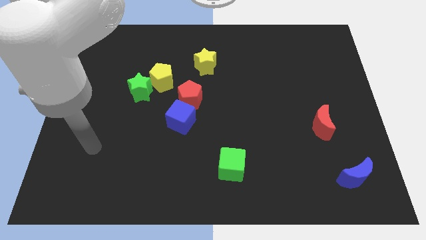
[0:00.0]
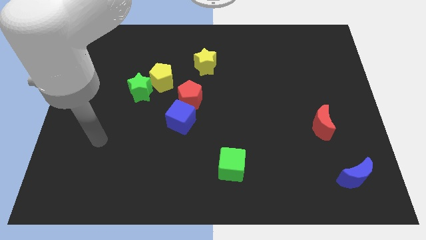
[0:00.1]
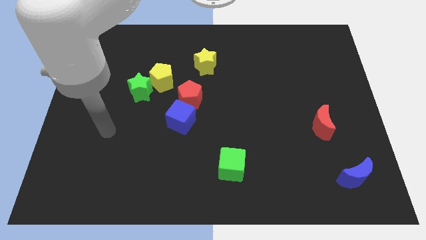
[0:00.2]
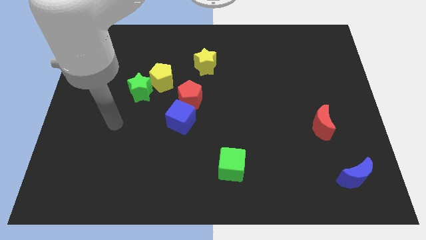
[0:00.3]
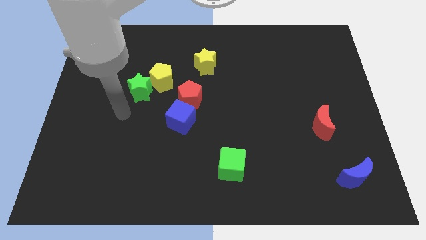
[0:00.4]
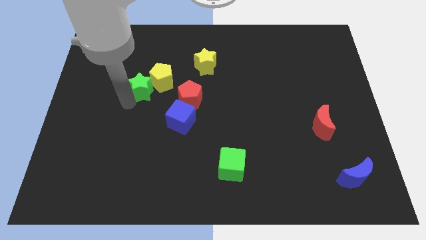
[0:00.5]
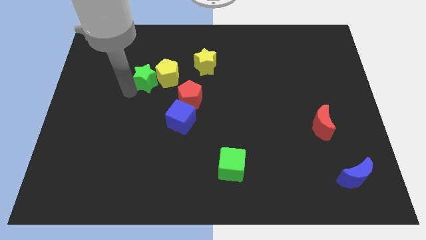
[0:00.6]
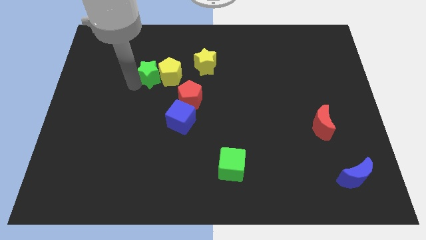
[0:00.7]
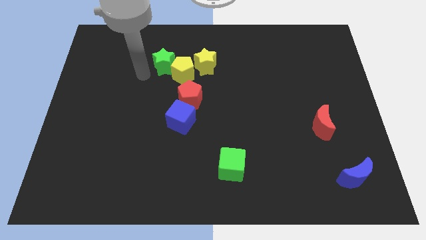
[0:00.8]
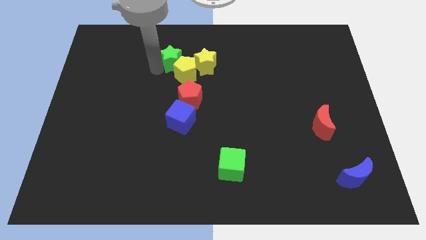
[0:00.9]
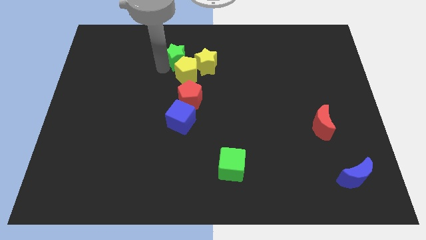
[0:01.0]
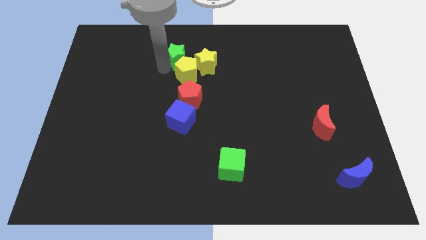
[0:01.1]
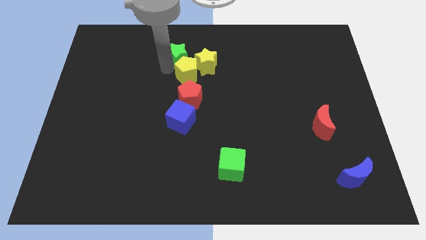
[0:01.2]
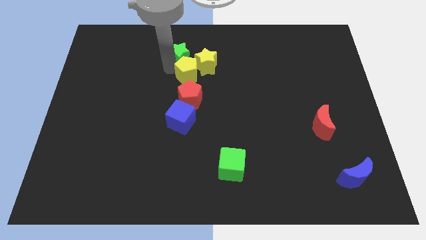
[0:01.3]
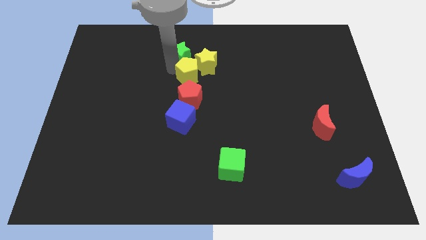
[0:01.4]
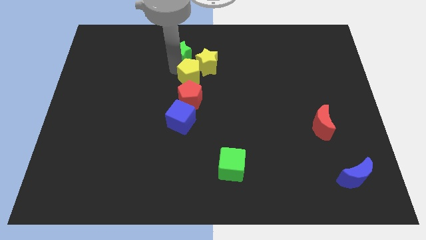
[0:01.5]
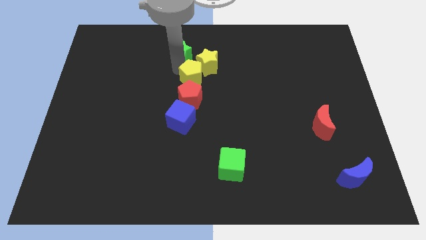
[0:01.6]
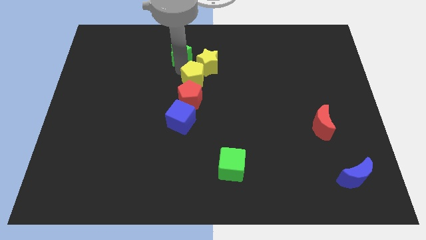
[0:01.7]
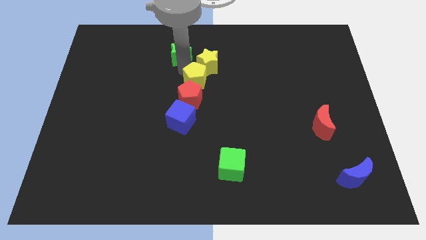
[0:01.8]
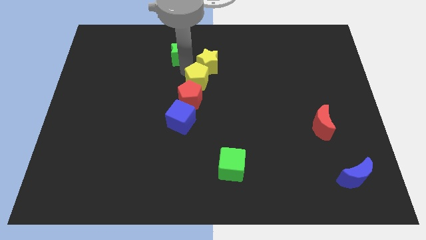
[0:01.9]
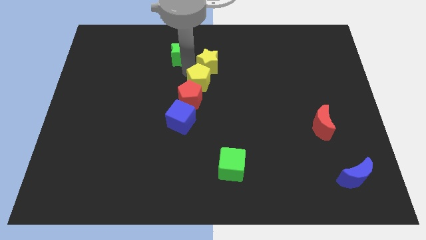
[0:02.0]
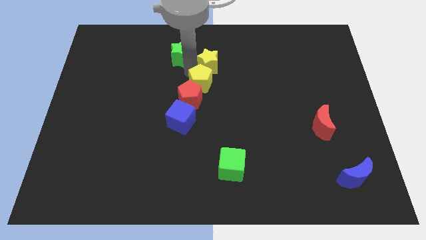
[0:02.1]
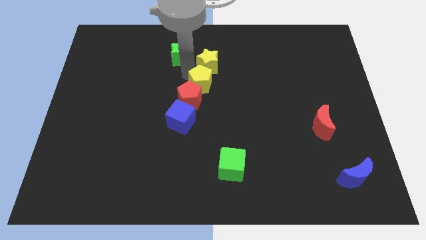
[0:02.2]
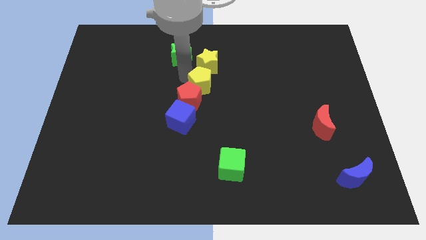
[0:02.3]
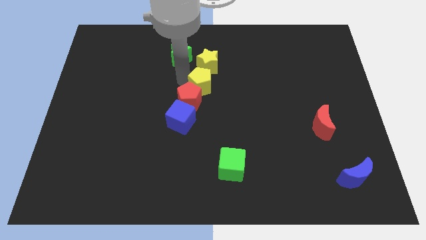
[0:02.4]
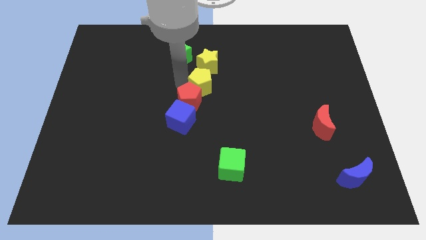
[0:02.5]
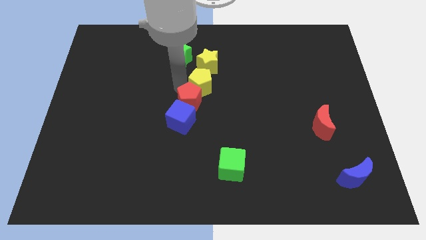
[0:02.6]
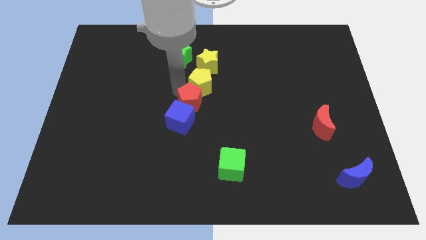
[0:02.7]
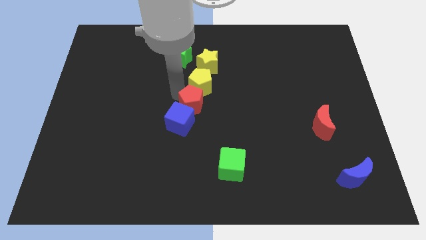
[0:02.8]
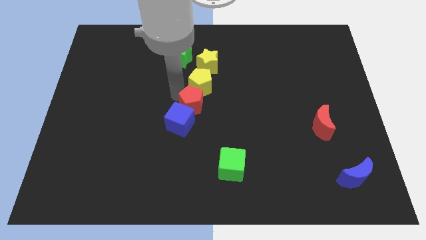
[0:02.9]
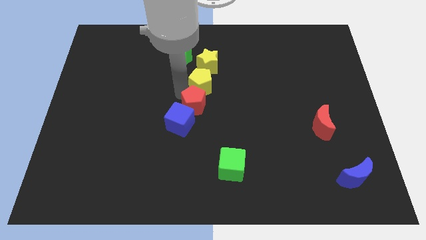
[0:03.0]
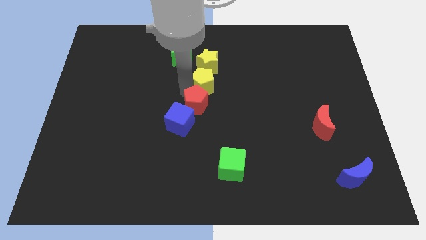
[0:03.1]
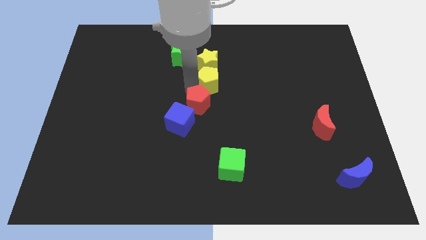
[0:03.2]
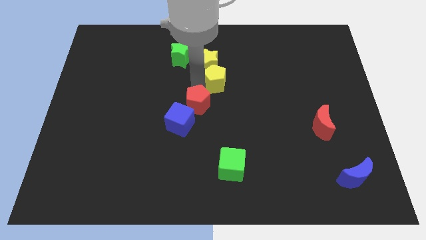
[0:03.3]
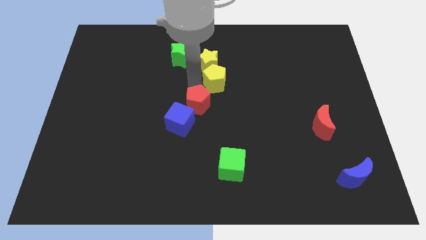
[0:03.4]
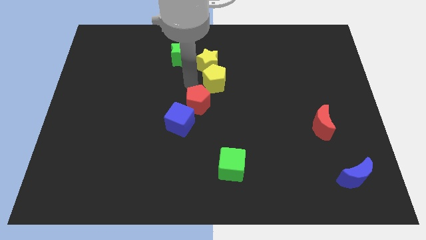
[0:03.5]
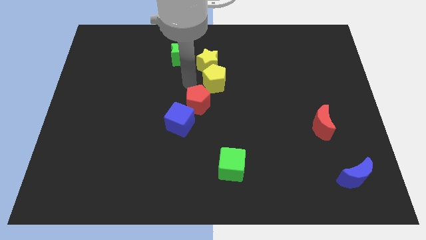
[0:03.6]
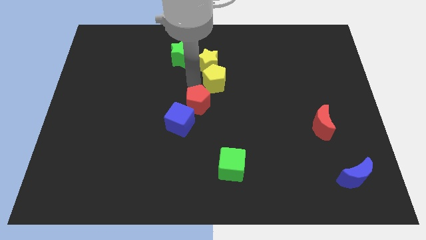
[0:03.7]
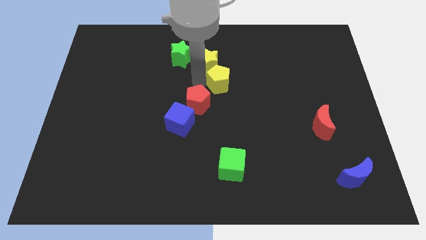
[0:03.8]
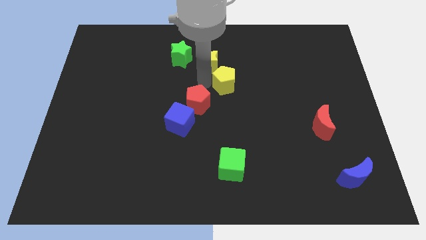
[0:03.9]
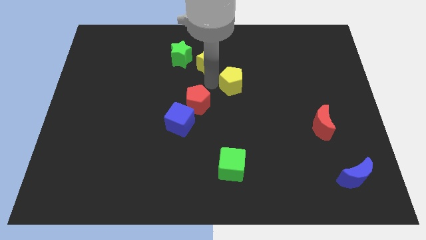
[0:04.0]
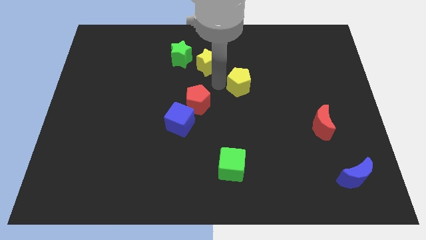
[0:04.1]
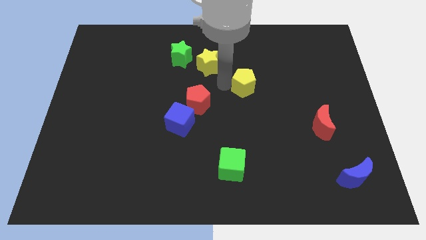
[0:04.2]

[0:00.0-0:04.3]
move the yellow pentagon right

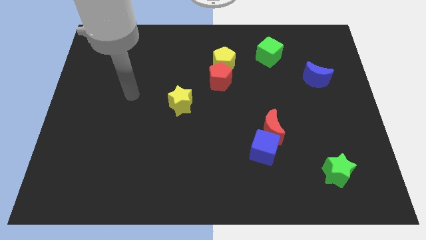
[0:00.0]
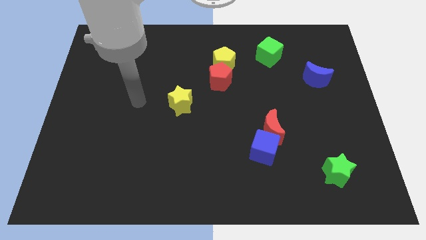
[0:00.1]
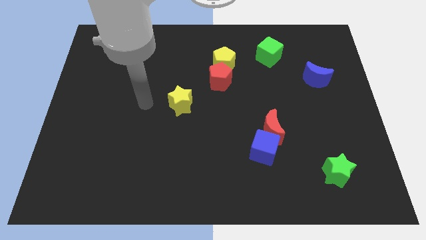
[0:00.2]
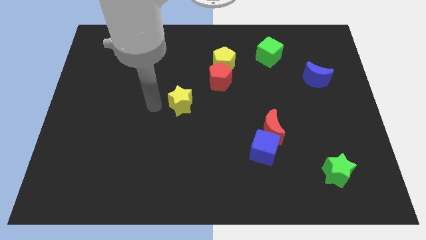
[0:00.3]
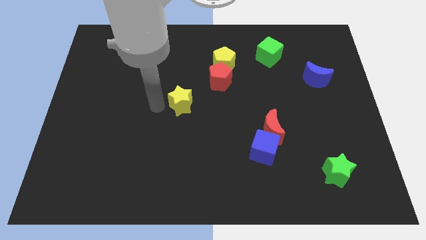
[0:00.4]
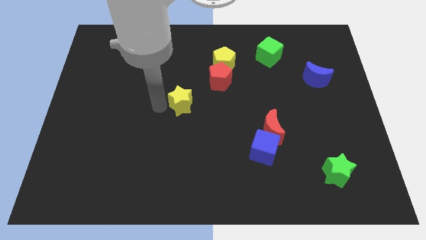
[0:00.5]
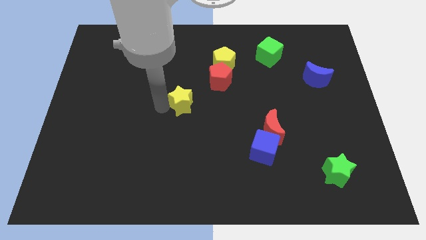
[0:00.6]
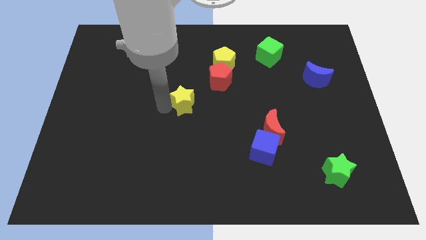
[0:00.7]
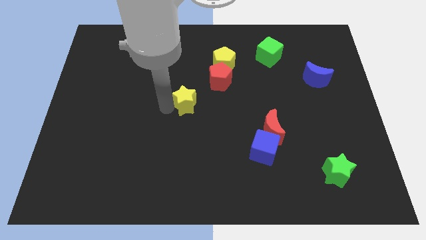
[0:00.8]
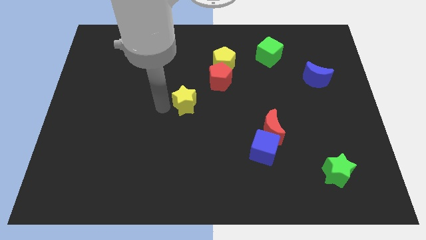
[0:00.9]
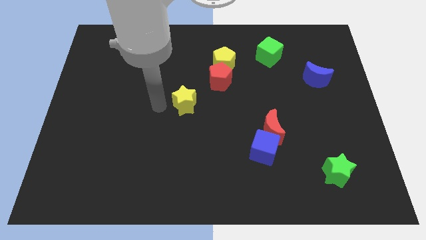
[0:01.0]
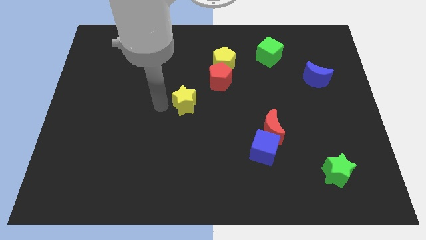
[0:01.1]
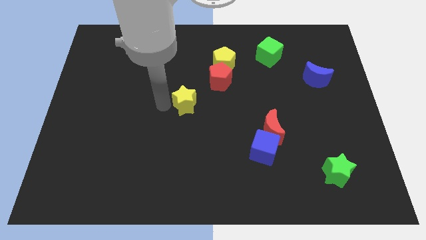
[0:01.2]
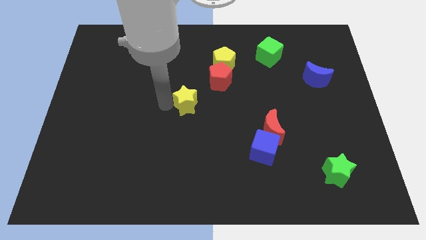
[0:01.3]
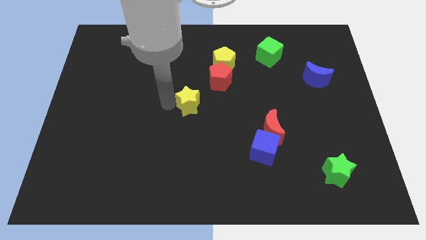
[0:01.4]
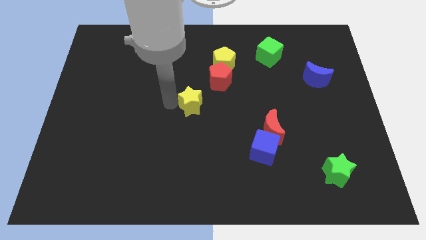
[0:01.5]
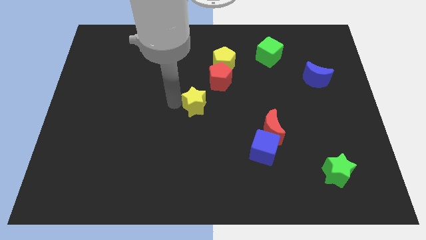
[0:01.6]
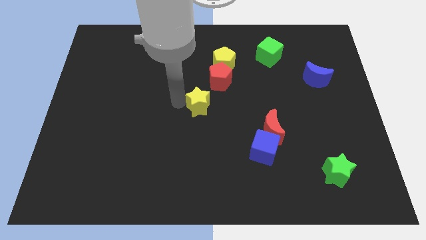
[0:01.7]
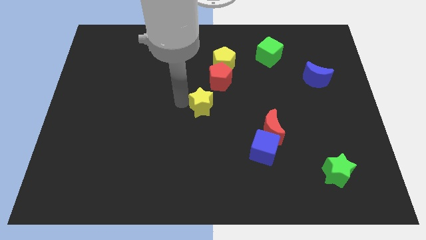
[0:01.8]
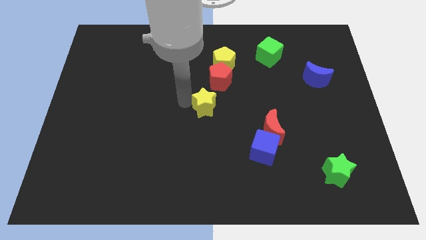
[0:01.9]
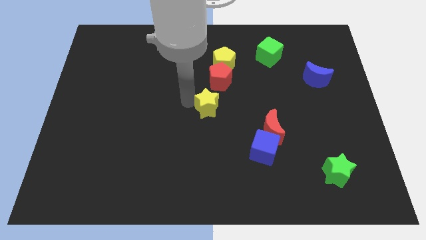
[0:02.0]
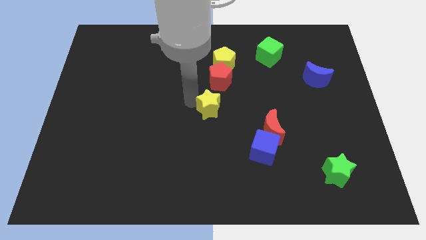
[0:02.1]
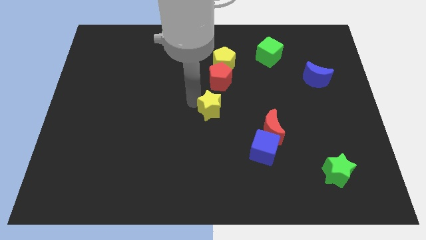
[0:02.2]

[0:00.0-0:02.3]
slide the yellow star to the right a little

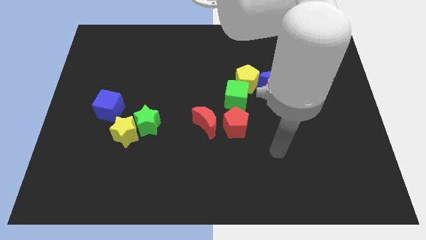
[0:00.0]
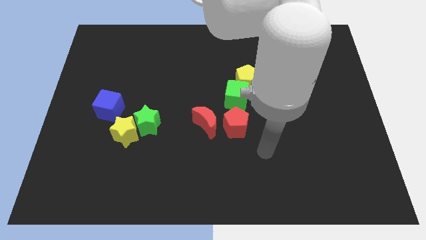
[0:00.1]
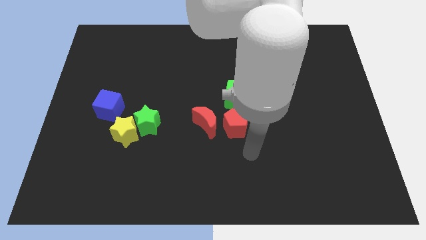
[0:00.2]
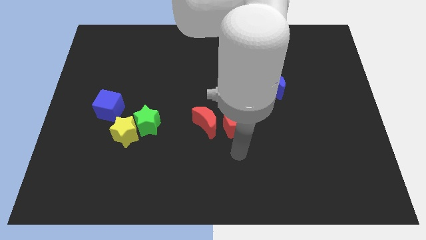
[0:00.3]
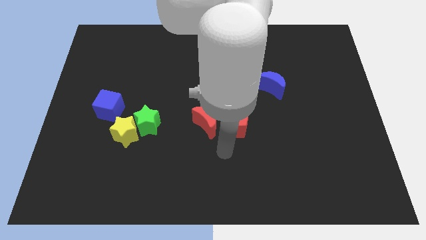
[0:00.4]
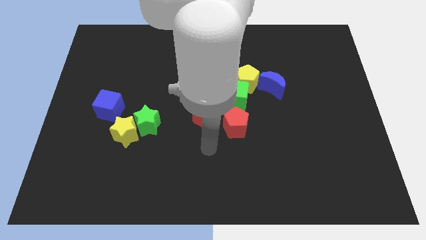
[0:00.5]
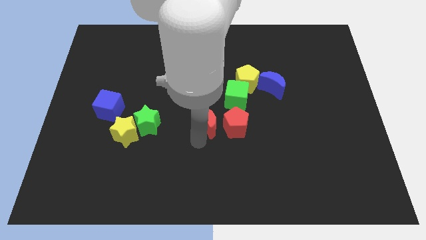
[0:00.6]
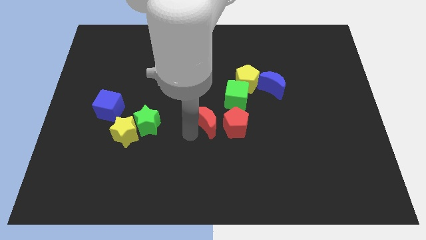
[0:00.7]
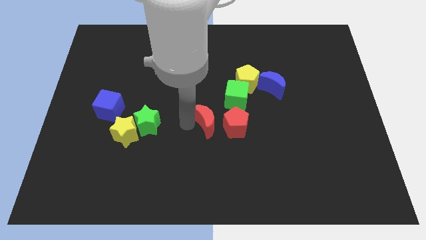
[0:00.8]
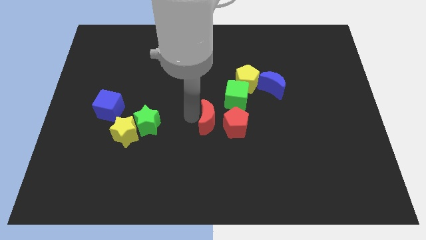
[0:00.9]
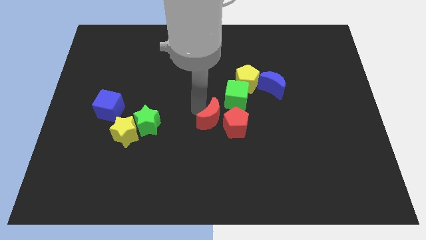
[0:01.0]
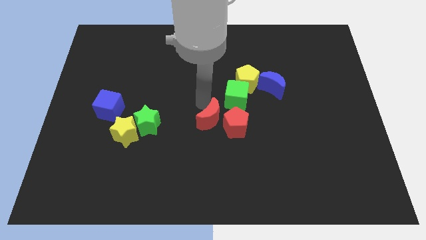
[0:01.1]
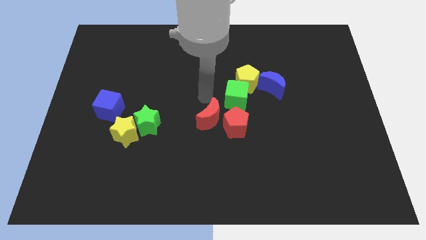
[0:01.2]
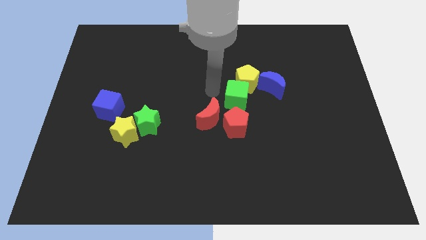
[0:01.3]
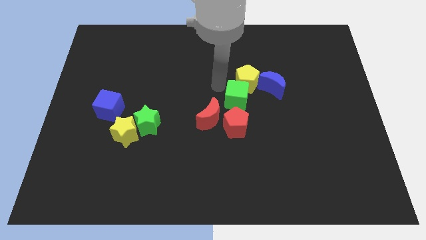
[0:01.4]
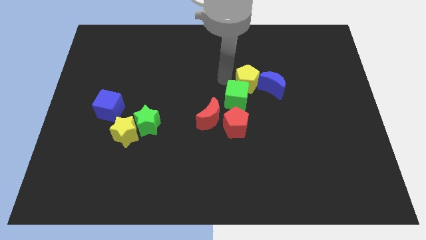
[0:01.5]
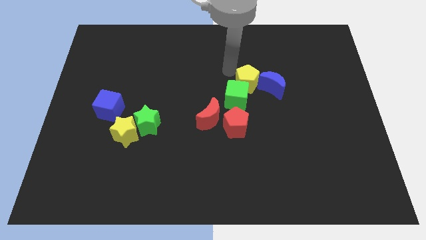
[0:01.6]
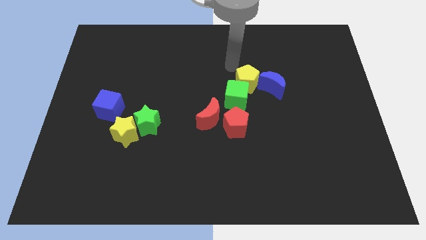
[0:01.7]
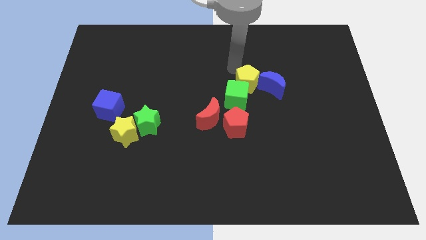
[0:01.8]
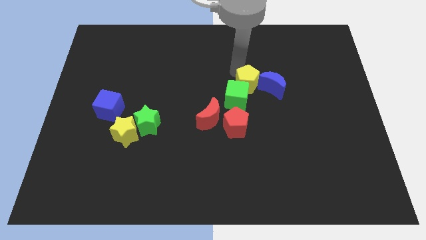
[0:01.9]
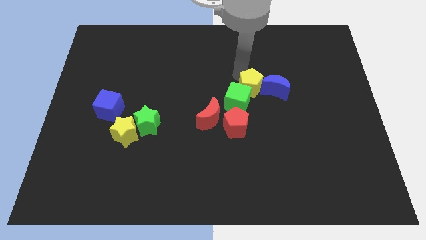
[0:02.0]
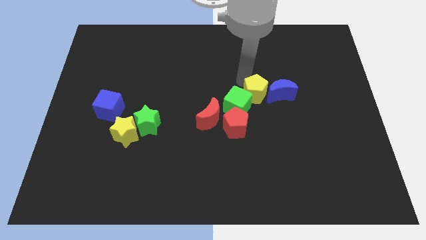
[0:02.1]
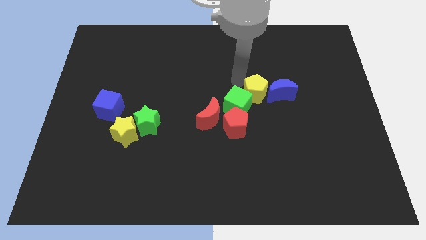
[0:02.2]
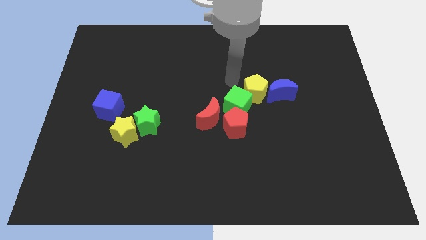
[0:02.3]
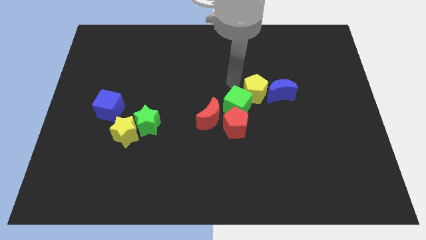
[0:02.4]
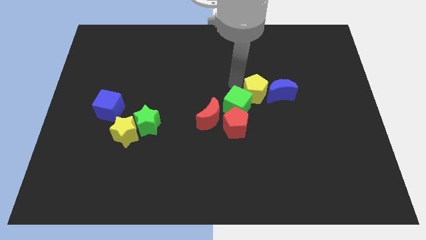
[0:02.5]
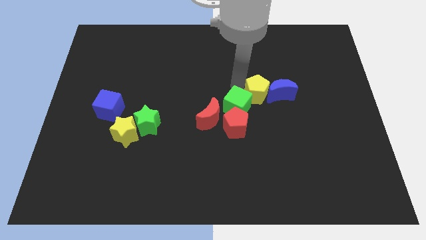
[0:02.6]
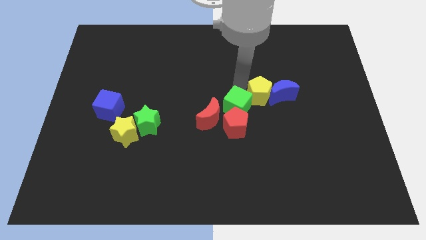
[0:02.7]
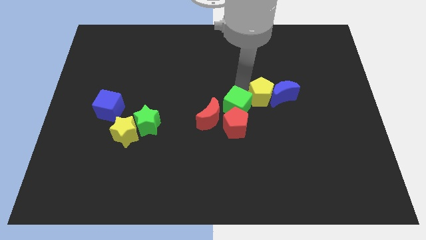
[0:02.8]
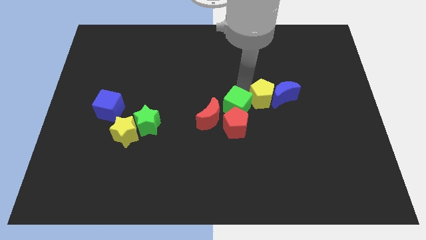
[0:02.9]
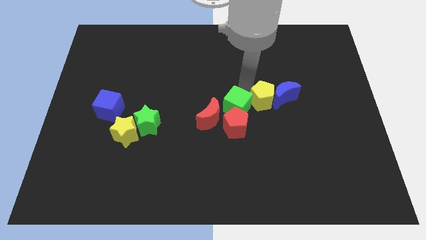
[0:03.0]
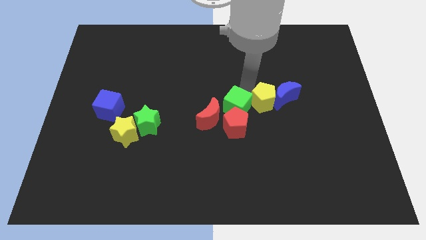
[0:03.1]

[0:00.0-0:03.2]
slide the yellow pentagon somewhat diagonally down and to the right
